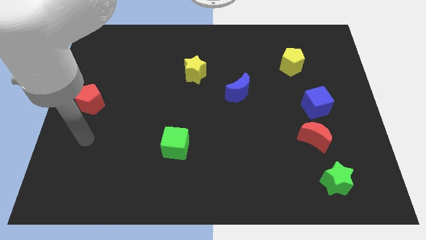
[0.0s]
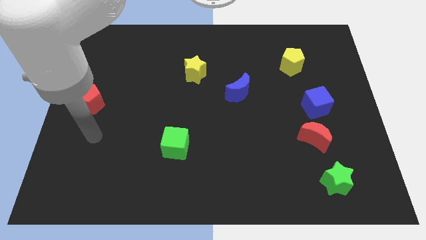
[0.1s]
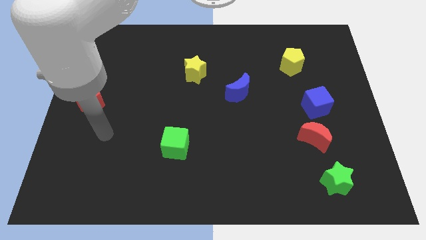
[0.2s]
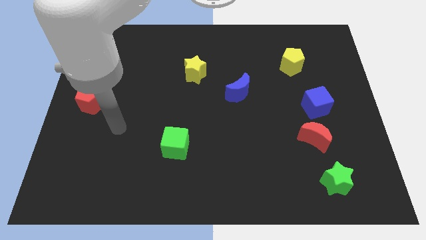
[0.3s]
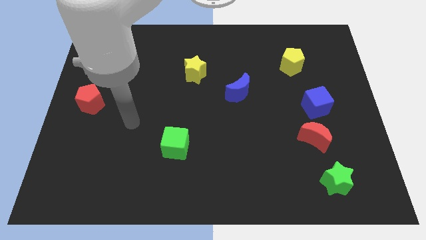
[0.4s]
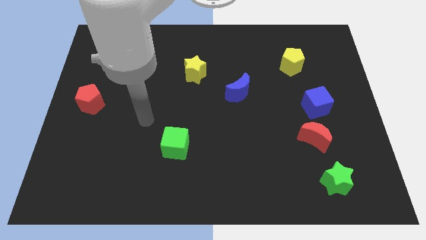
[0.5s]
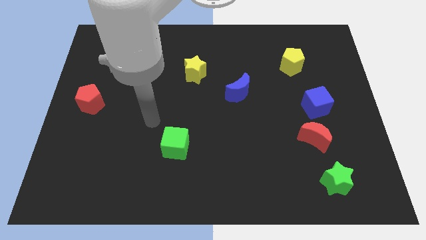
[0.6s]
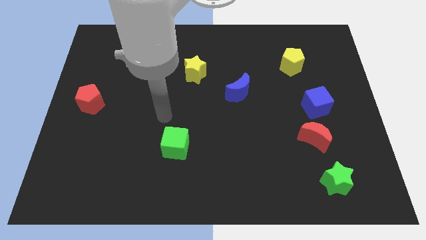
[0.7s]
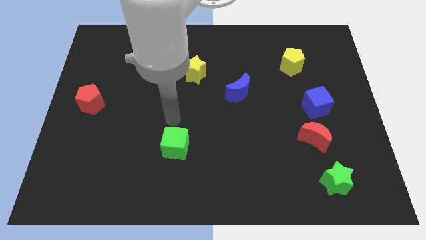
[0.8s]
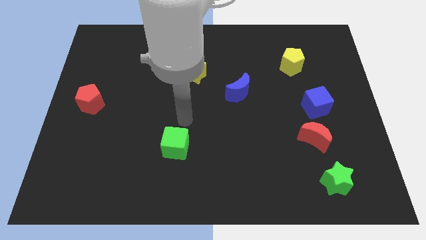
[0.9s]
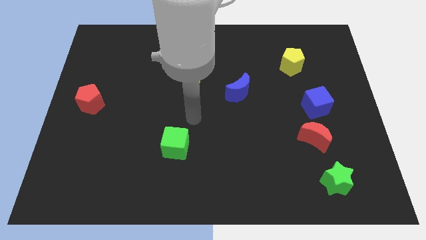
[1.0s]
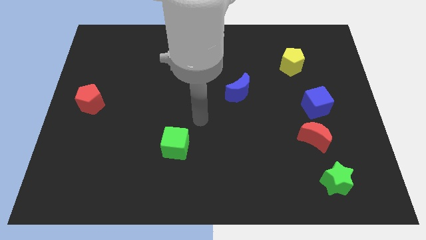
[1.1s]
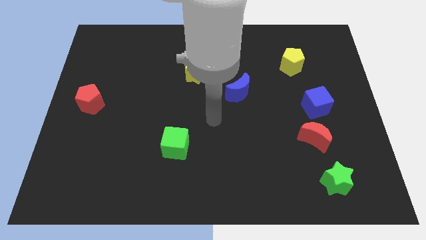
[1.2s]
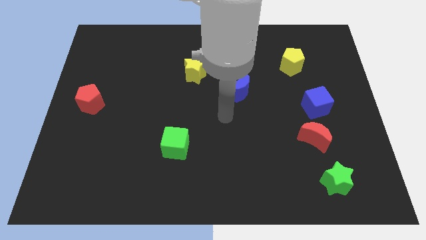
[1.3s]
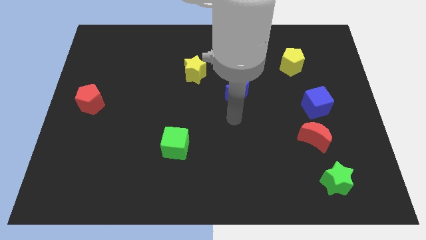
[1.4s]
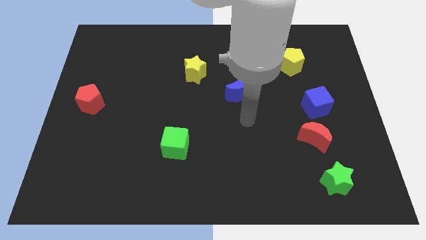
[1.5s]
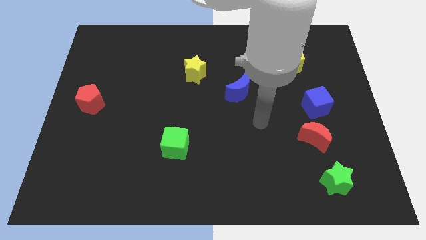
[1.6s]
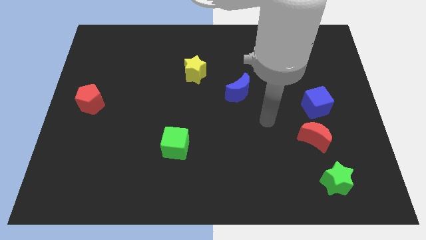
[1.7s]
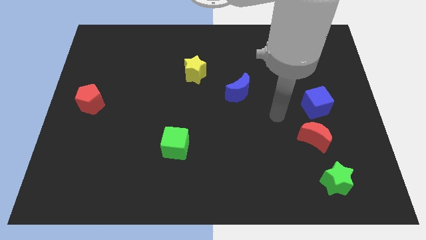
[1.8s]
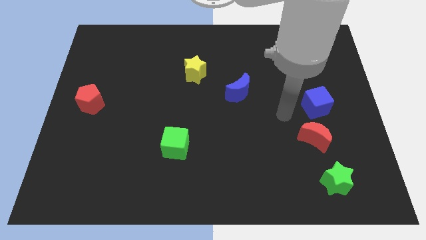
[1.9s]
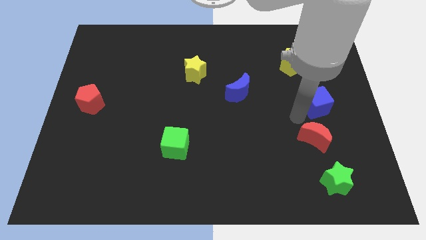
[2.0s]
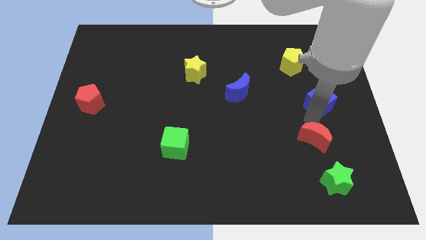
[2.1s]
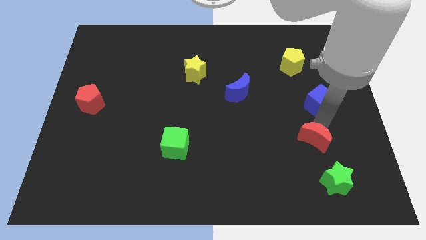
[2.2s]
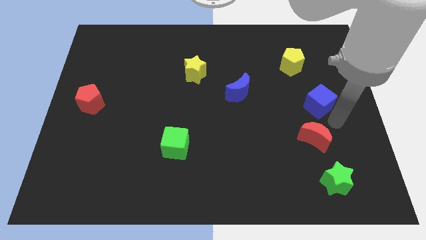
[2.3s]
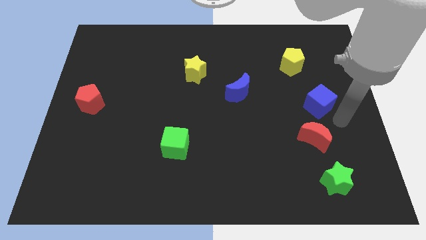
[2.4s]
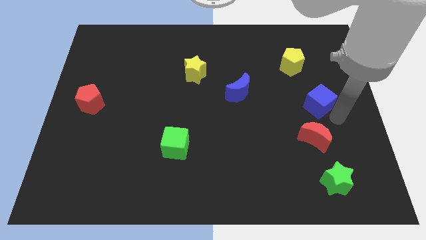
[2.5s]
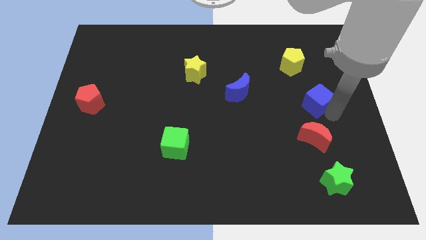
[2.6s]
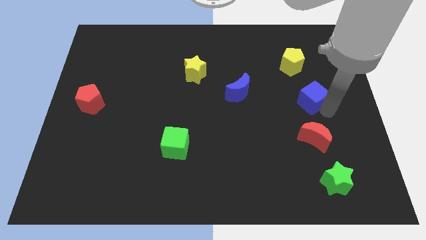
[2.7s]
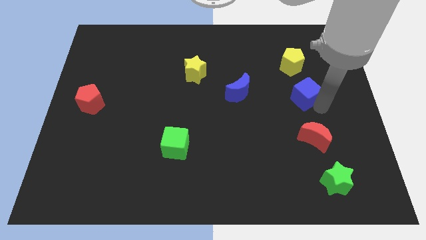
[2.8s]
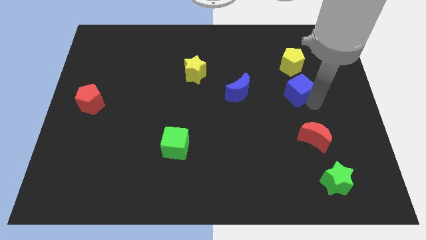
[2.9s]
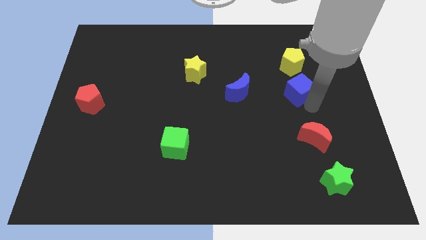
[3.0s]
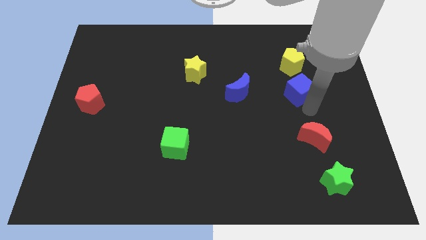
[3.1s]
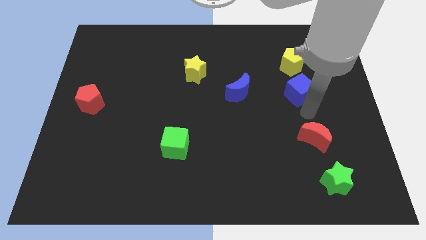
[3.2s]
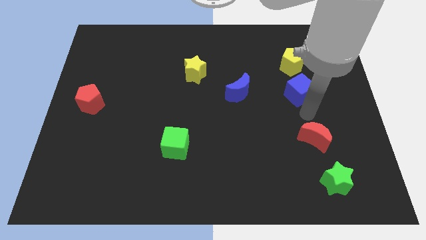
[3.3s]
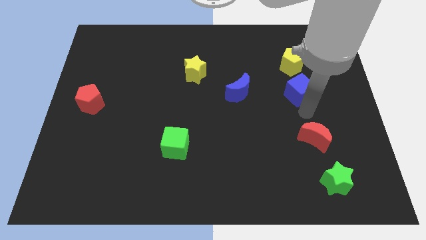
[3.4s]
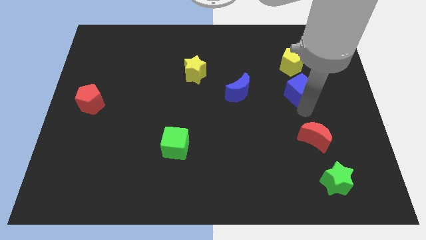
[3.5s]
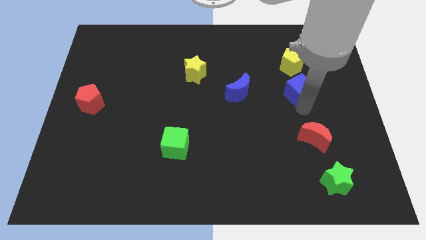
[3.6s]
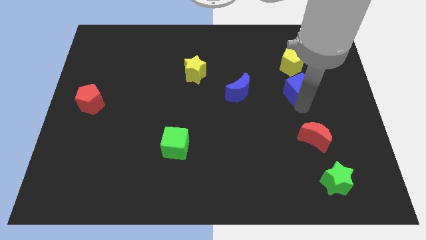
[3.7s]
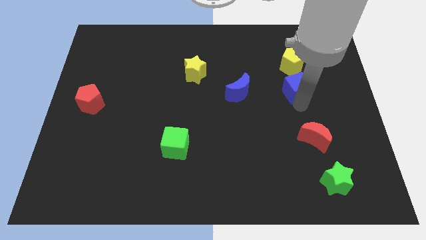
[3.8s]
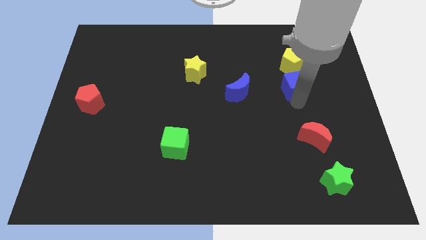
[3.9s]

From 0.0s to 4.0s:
move the blue cube slightly up and then to the left

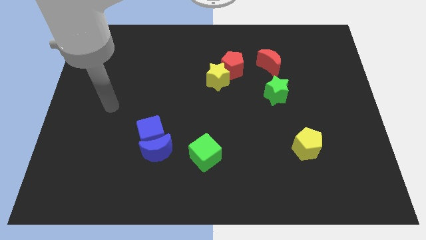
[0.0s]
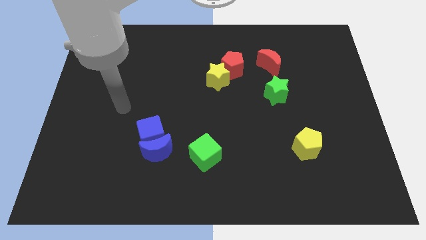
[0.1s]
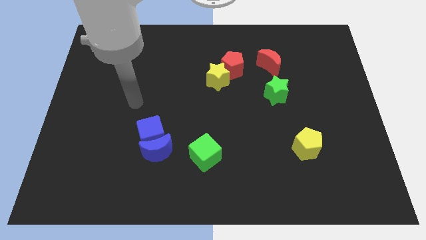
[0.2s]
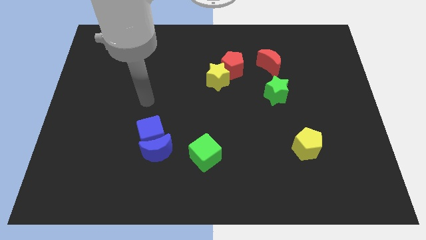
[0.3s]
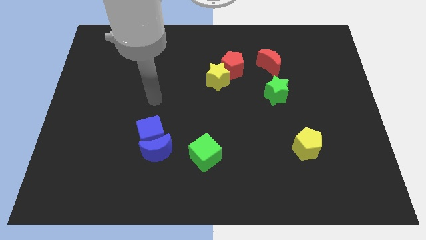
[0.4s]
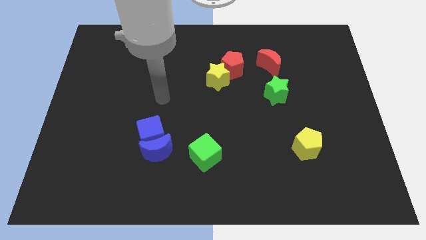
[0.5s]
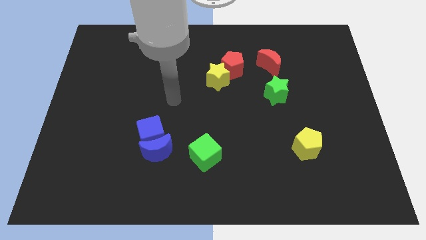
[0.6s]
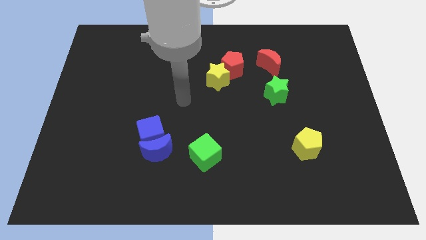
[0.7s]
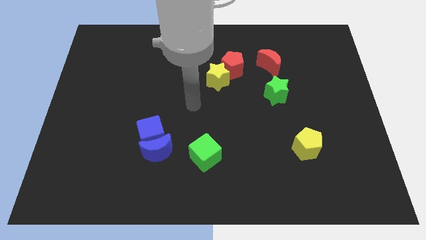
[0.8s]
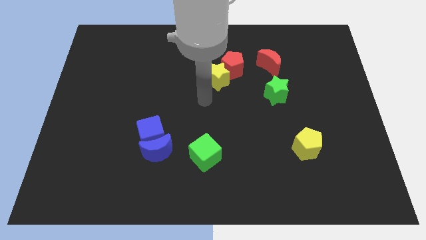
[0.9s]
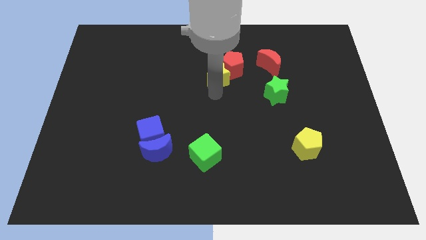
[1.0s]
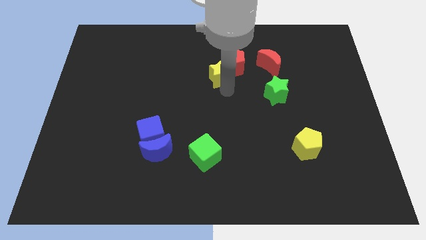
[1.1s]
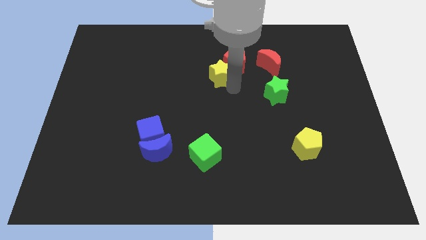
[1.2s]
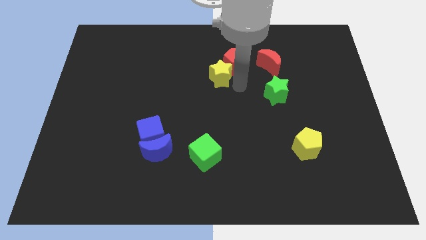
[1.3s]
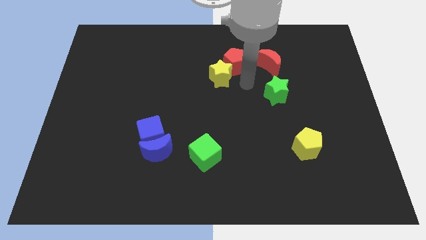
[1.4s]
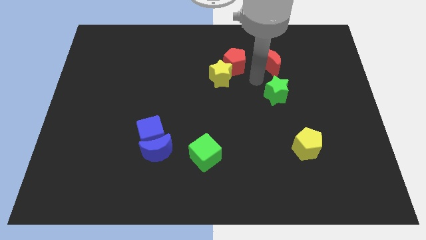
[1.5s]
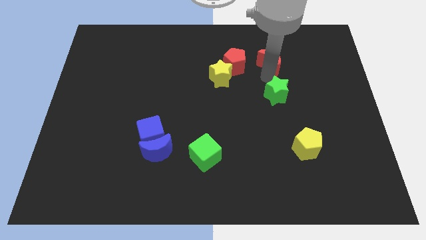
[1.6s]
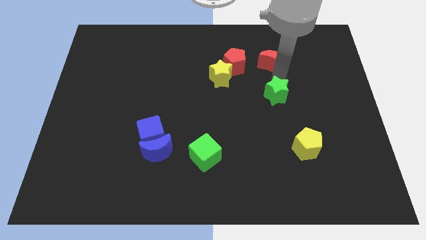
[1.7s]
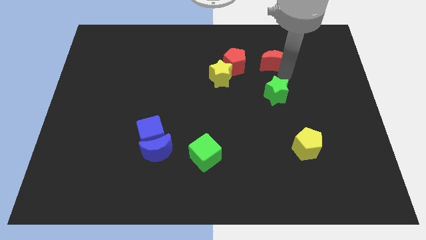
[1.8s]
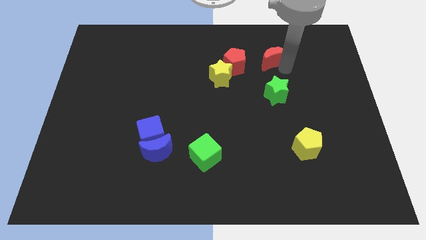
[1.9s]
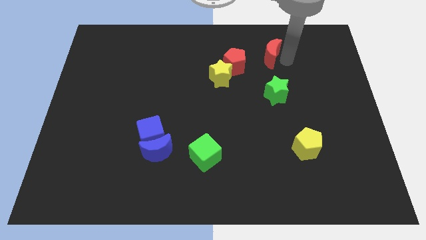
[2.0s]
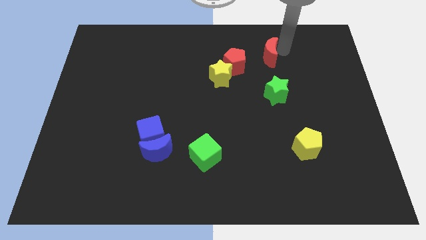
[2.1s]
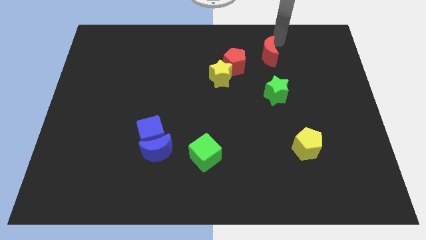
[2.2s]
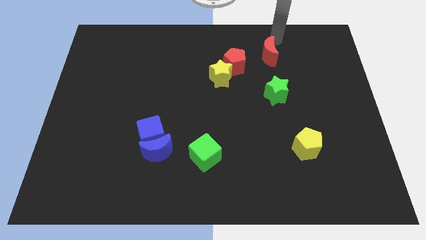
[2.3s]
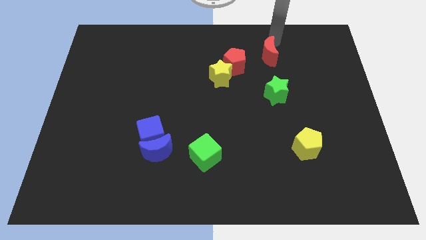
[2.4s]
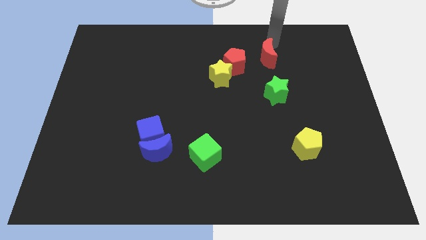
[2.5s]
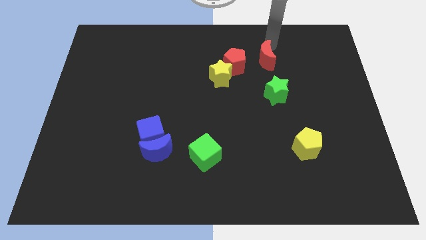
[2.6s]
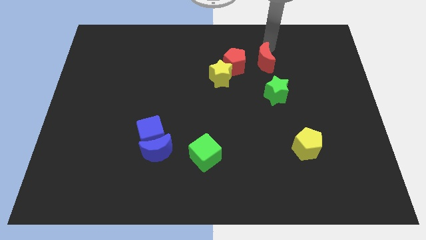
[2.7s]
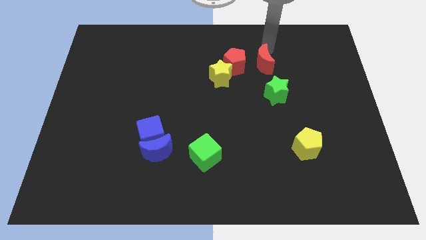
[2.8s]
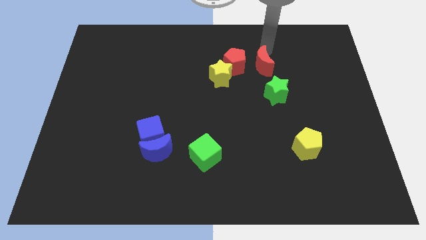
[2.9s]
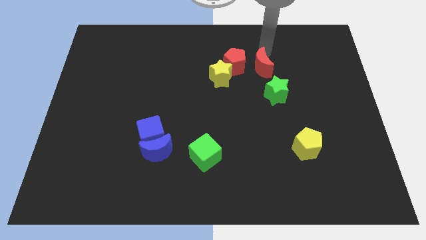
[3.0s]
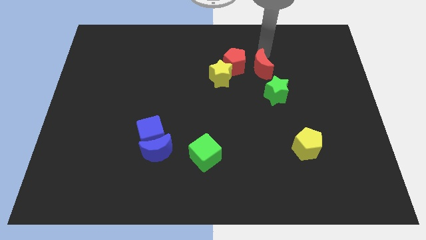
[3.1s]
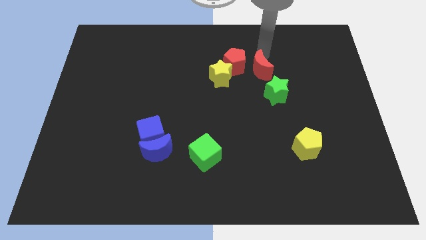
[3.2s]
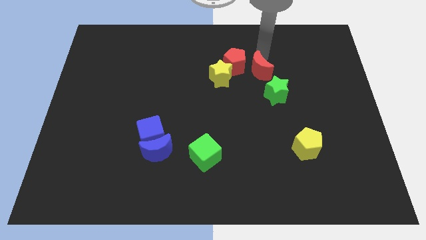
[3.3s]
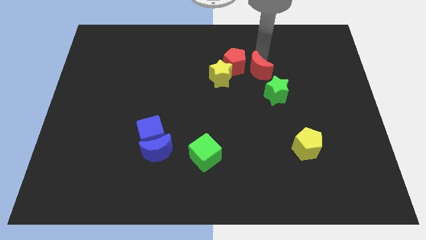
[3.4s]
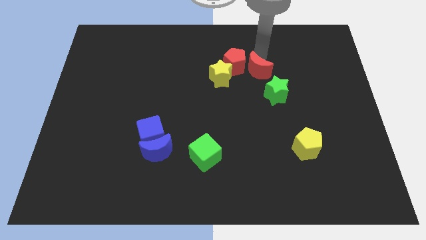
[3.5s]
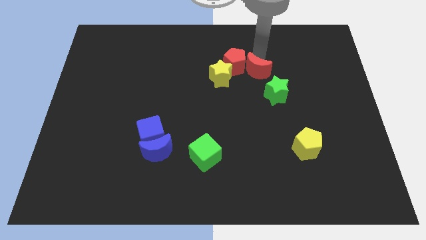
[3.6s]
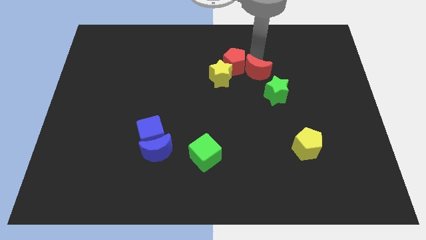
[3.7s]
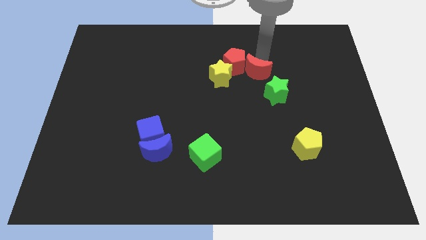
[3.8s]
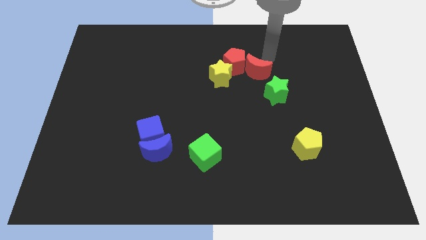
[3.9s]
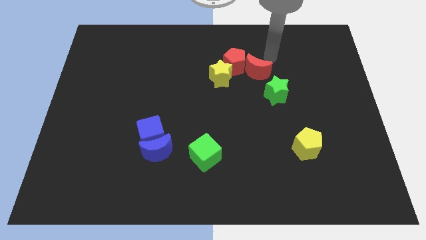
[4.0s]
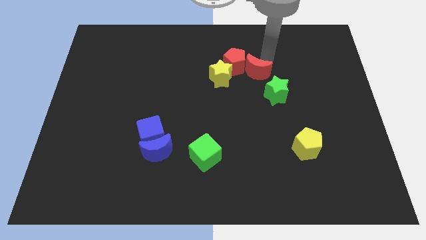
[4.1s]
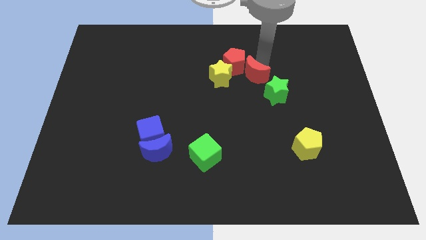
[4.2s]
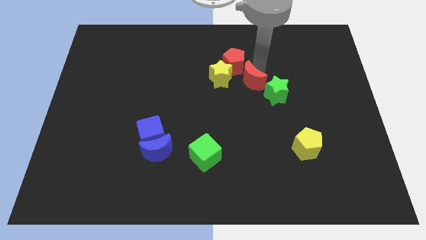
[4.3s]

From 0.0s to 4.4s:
move the red moon a bit downwards and to the left
